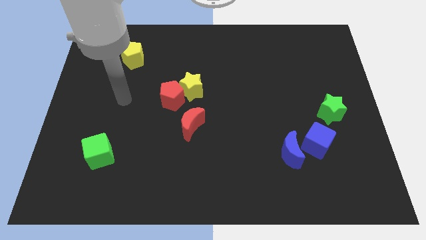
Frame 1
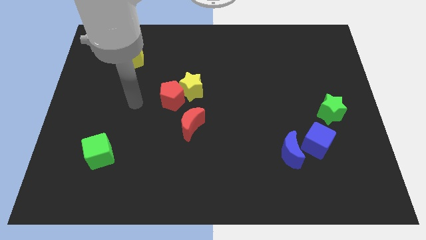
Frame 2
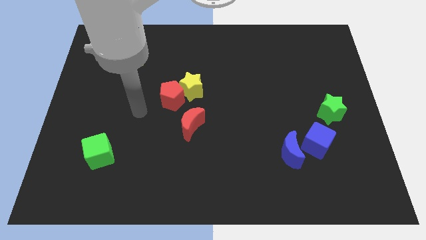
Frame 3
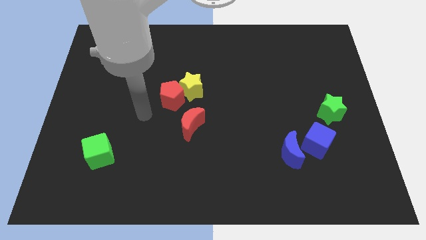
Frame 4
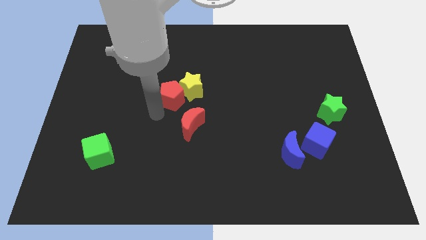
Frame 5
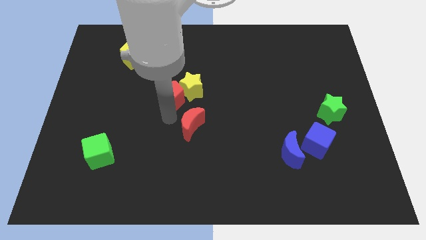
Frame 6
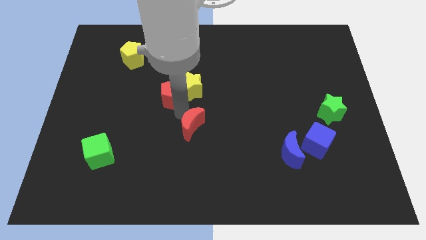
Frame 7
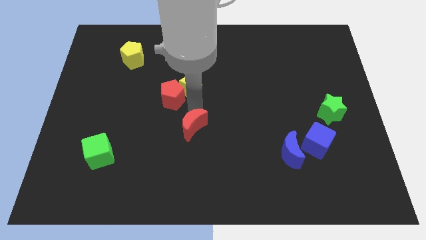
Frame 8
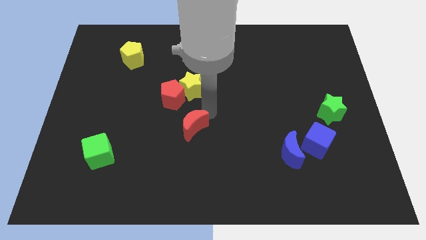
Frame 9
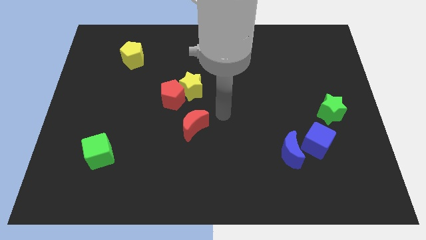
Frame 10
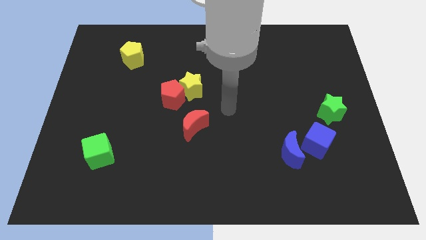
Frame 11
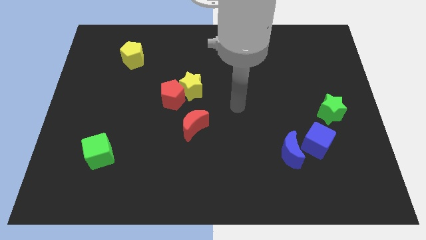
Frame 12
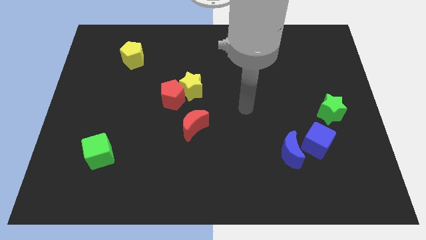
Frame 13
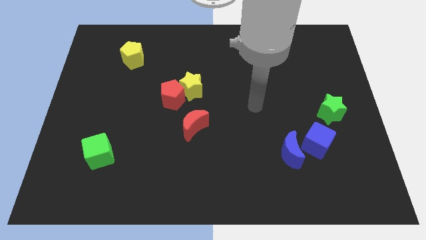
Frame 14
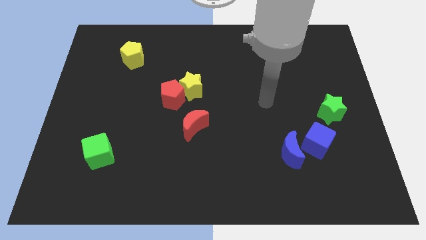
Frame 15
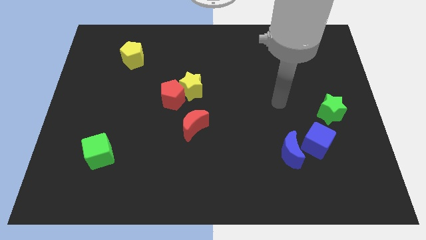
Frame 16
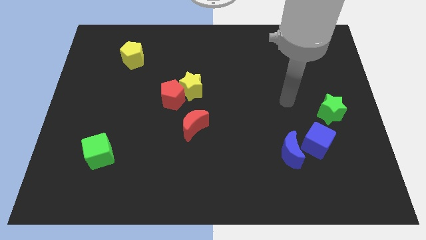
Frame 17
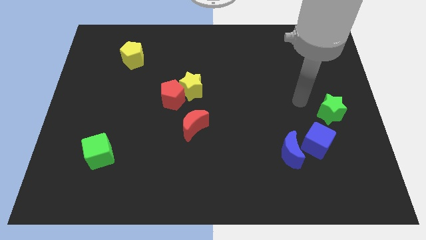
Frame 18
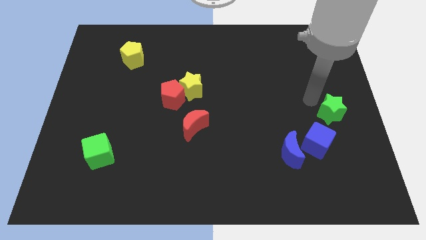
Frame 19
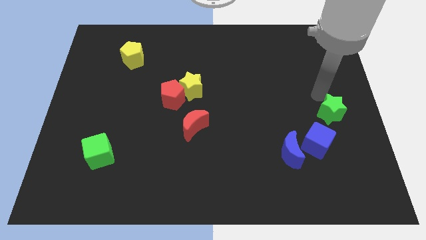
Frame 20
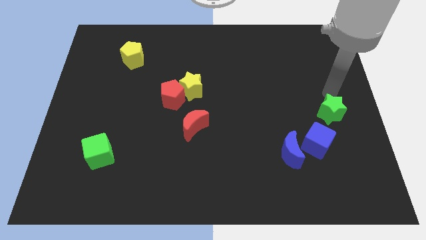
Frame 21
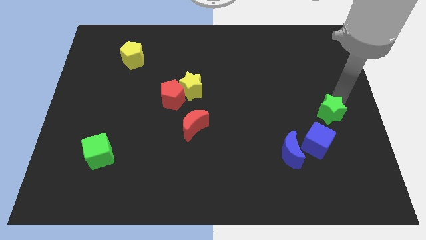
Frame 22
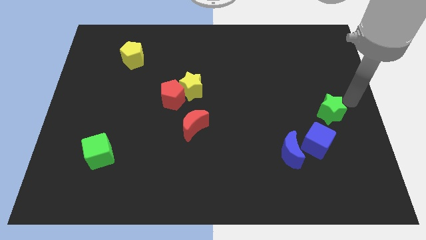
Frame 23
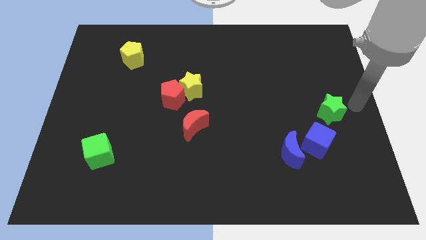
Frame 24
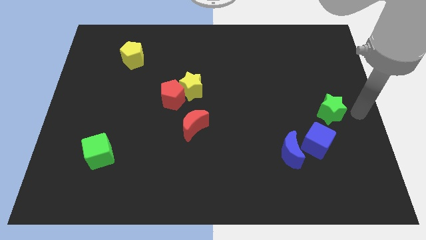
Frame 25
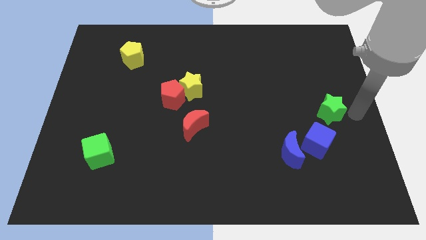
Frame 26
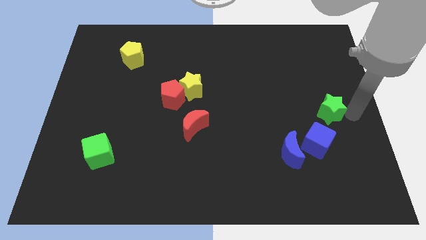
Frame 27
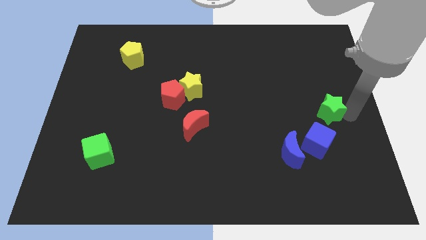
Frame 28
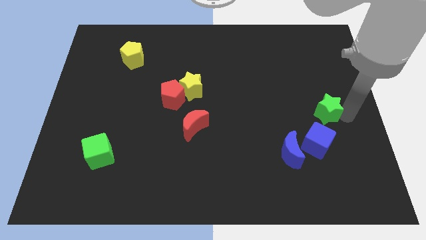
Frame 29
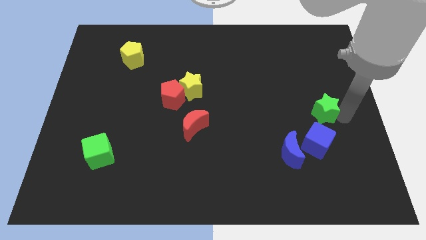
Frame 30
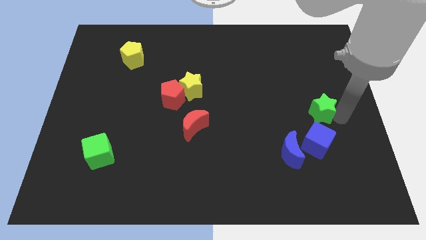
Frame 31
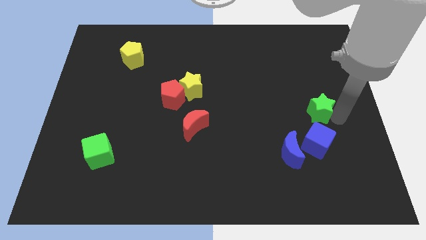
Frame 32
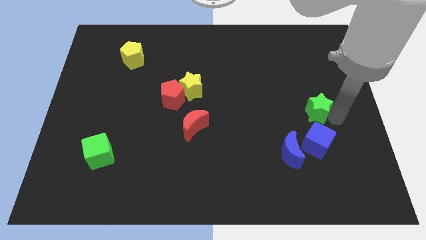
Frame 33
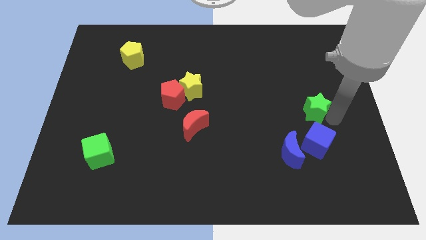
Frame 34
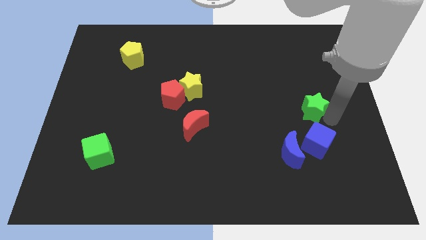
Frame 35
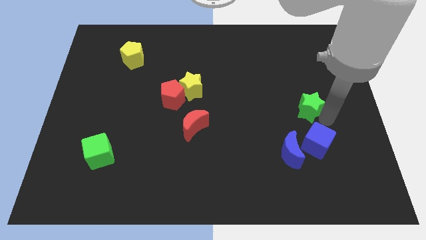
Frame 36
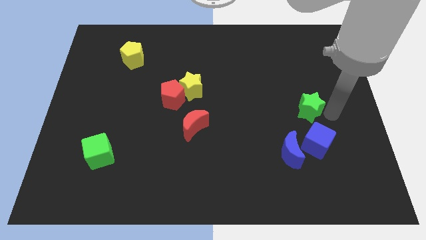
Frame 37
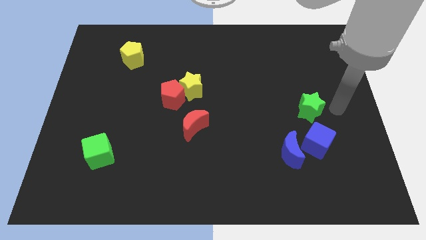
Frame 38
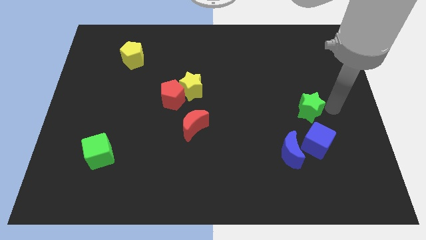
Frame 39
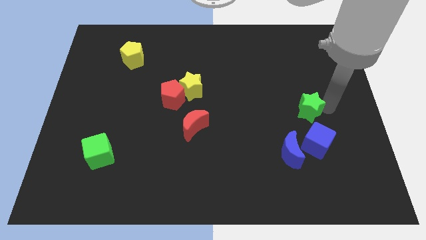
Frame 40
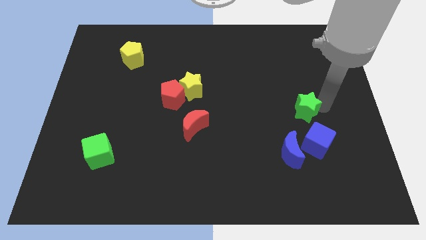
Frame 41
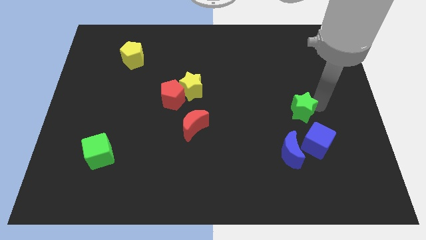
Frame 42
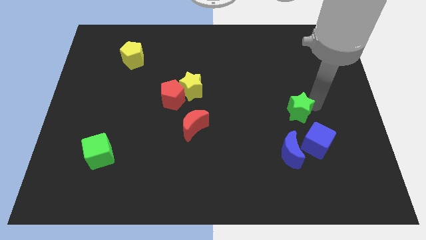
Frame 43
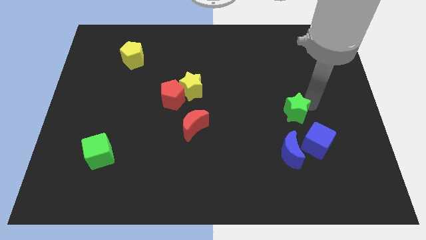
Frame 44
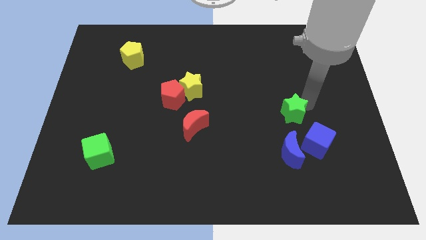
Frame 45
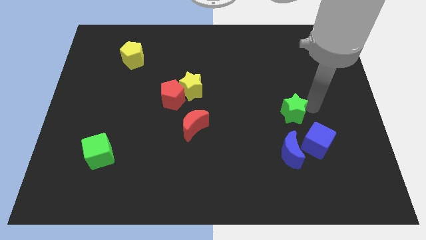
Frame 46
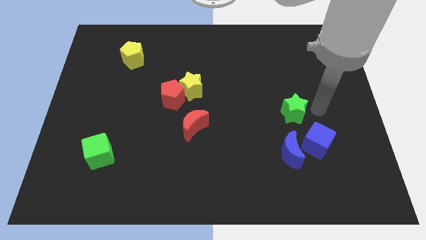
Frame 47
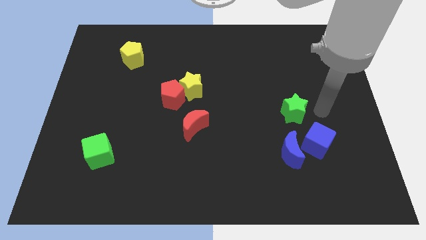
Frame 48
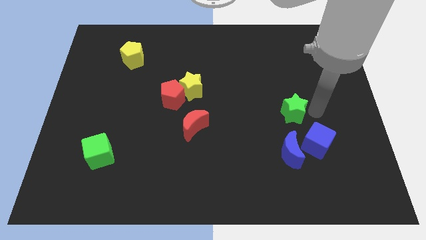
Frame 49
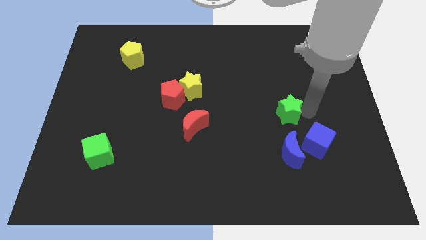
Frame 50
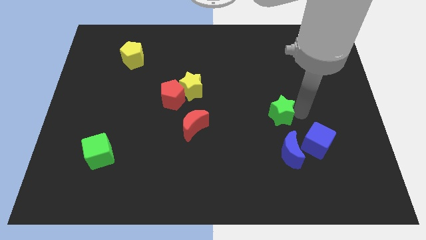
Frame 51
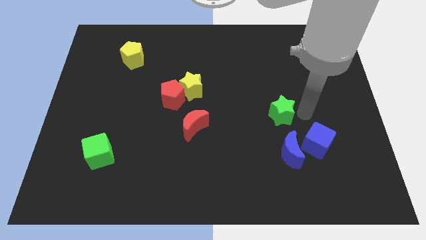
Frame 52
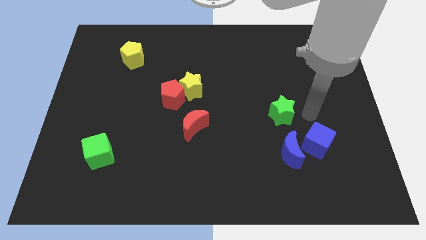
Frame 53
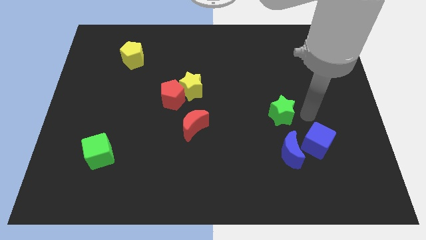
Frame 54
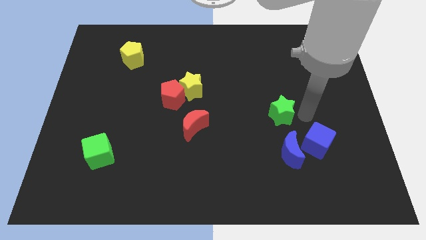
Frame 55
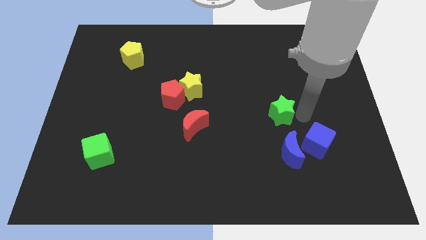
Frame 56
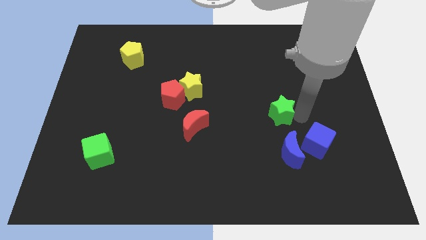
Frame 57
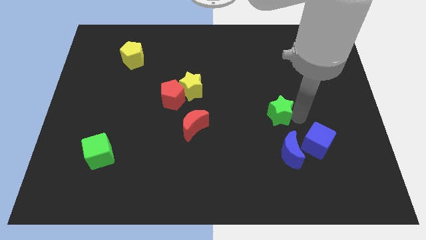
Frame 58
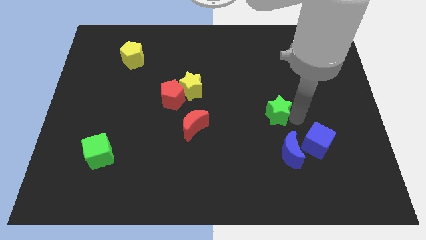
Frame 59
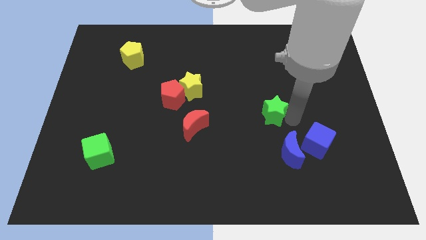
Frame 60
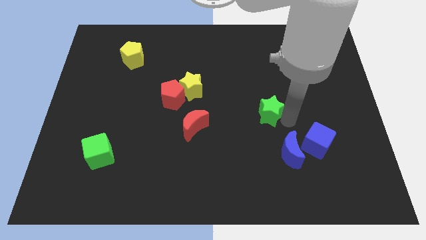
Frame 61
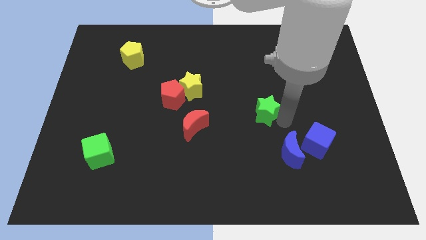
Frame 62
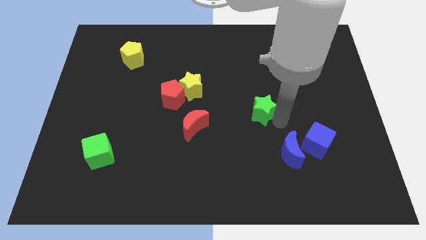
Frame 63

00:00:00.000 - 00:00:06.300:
move the green star to the middle of the board
